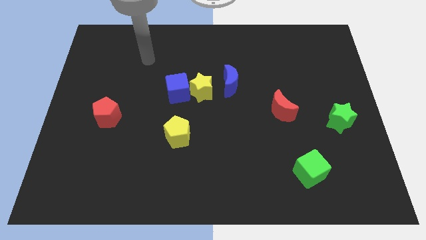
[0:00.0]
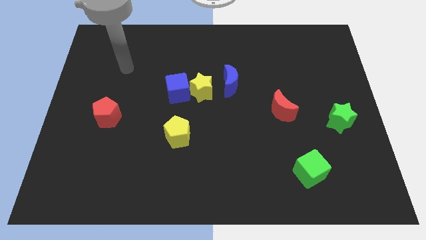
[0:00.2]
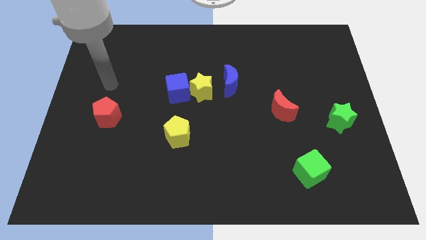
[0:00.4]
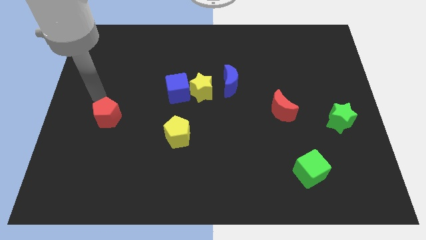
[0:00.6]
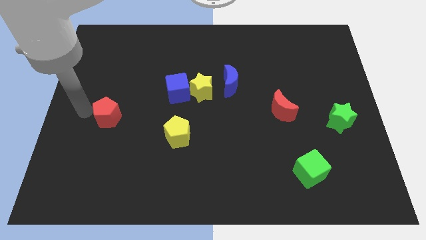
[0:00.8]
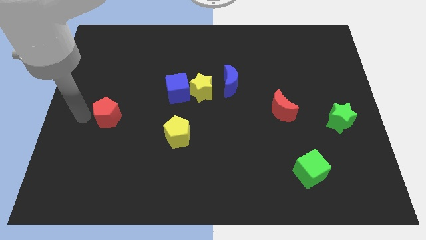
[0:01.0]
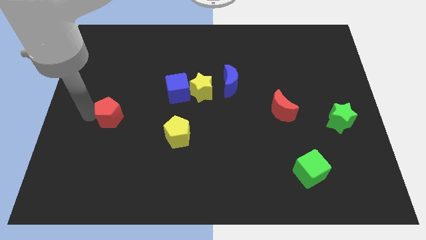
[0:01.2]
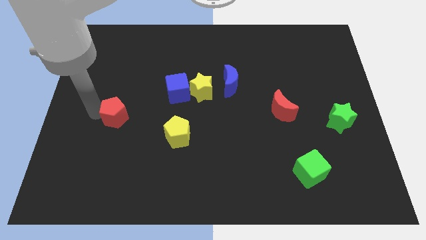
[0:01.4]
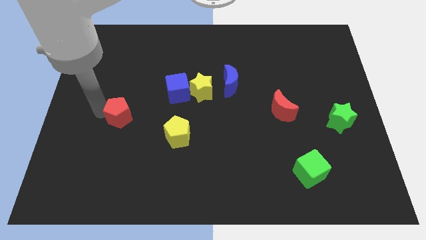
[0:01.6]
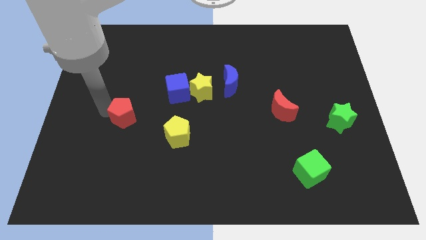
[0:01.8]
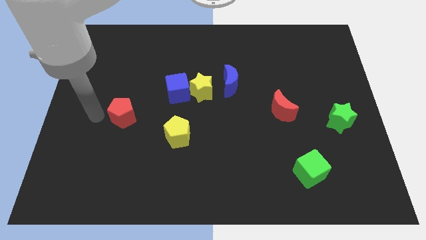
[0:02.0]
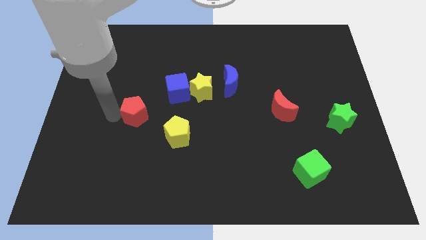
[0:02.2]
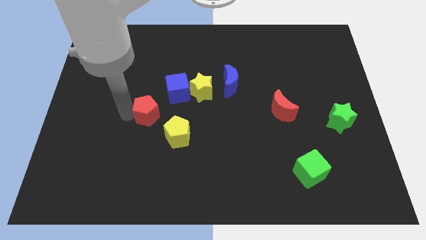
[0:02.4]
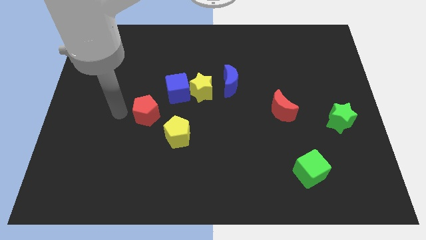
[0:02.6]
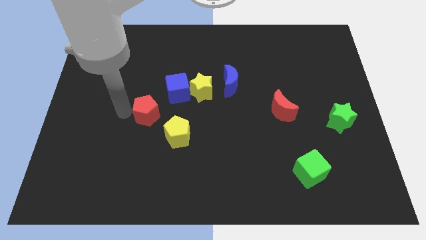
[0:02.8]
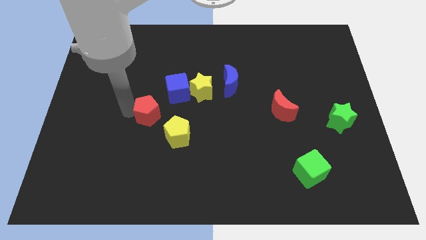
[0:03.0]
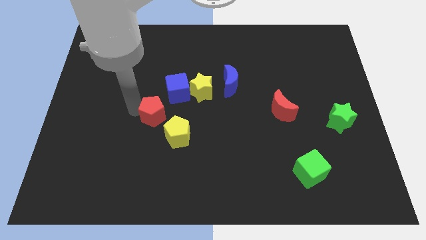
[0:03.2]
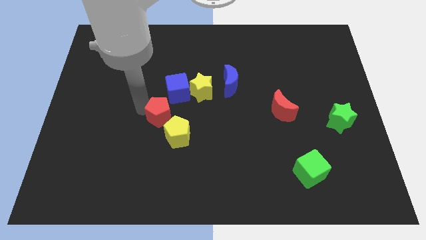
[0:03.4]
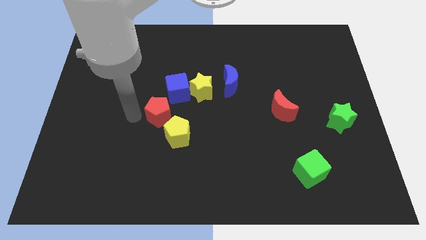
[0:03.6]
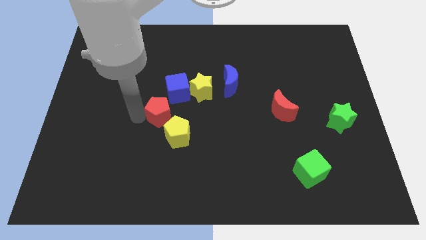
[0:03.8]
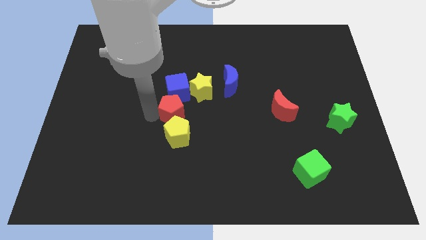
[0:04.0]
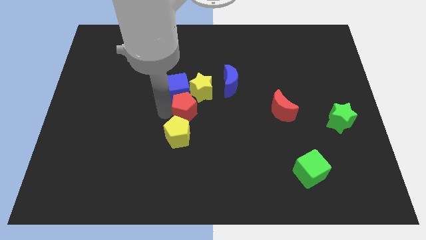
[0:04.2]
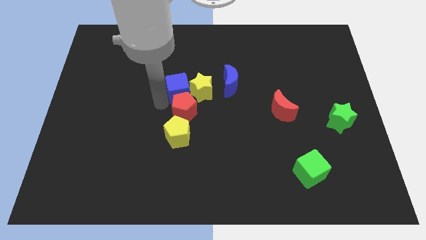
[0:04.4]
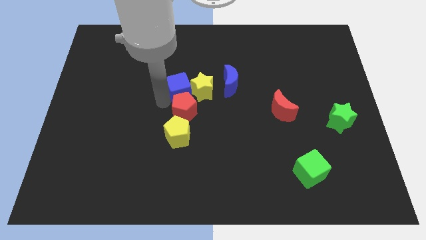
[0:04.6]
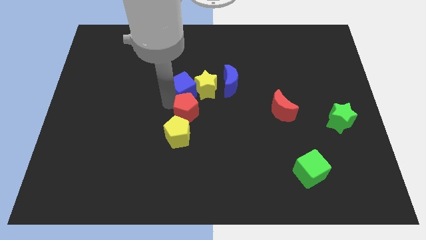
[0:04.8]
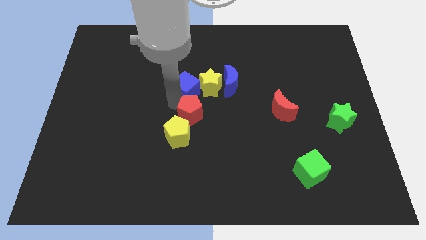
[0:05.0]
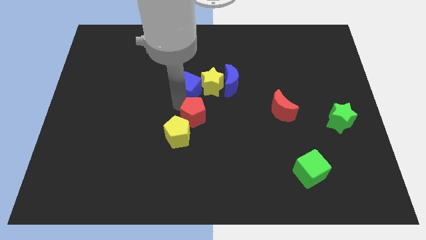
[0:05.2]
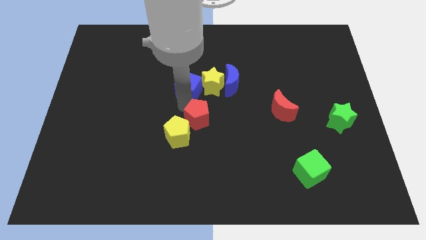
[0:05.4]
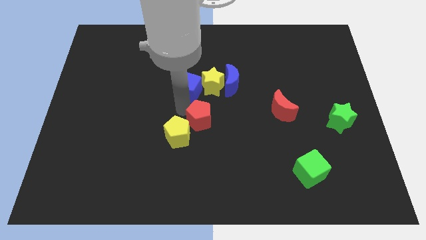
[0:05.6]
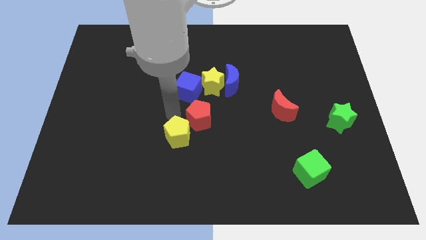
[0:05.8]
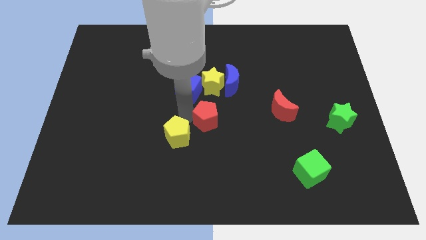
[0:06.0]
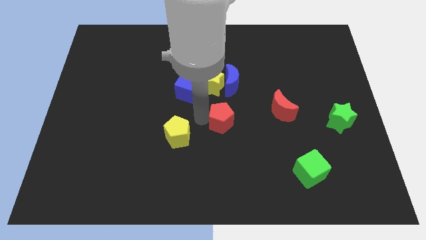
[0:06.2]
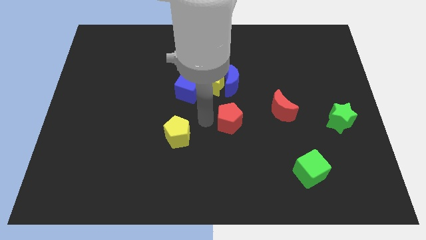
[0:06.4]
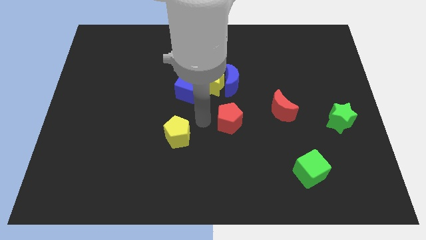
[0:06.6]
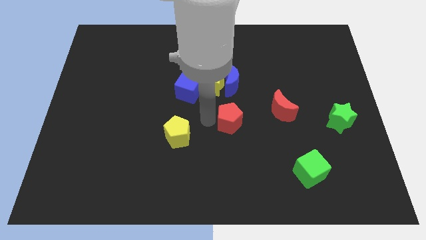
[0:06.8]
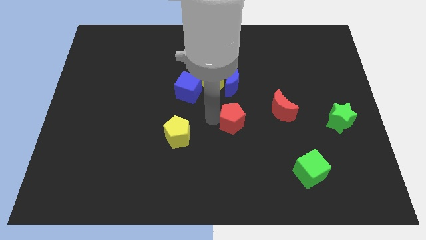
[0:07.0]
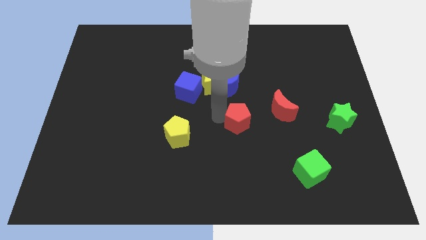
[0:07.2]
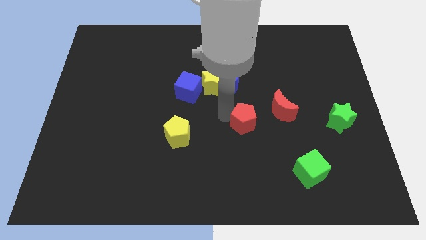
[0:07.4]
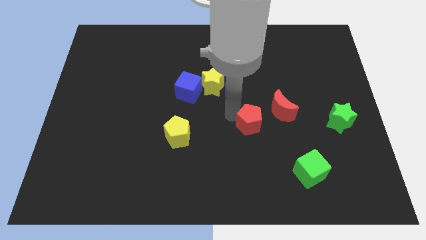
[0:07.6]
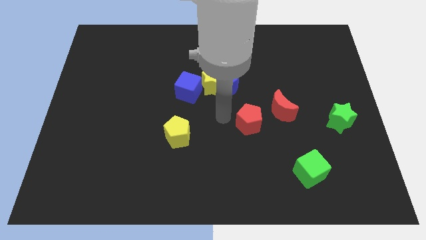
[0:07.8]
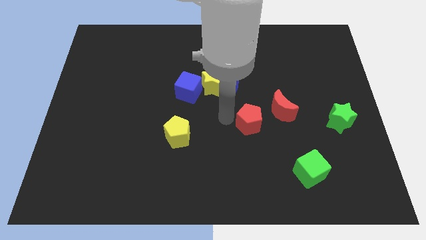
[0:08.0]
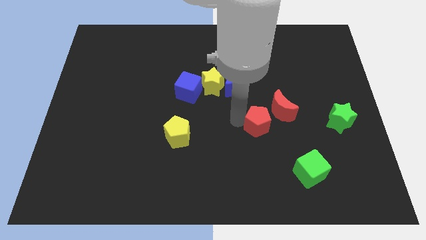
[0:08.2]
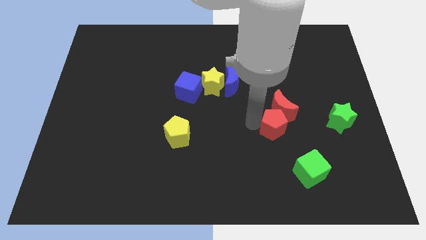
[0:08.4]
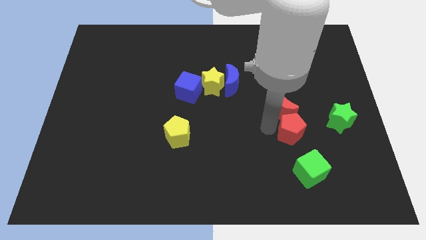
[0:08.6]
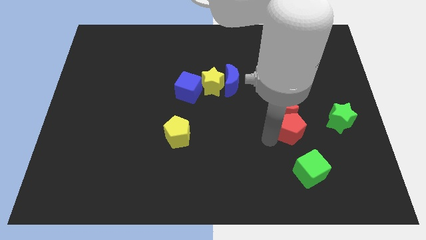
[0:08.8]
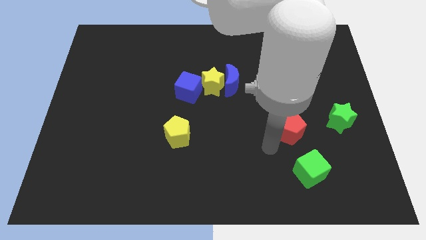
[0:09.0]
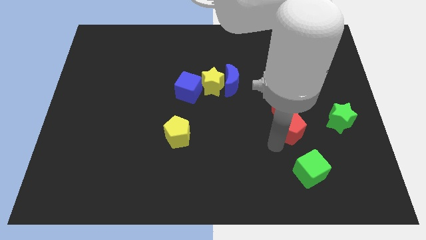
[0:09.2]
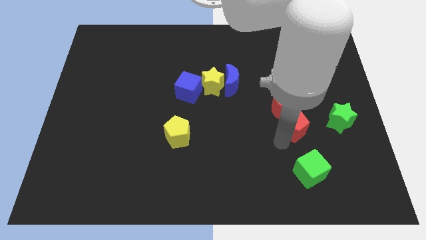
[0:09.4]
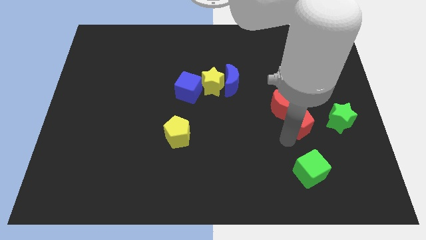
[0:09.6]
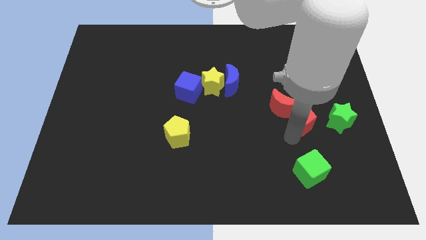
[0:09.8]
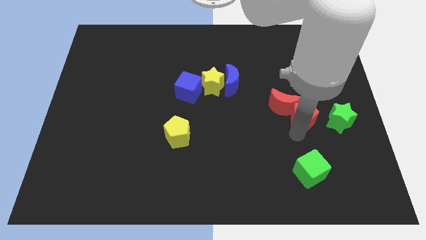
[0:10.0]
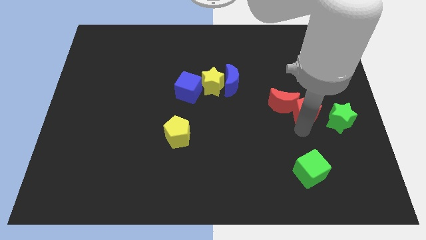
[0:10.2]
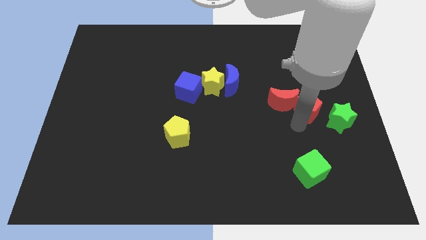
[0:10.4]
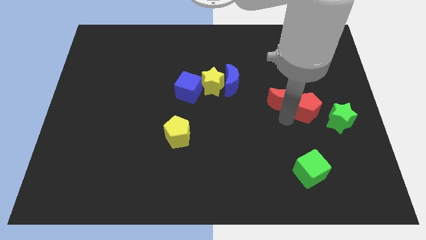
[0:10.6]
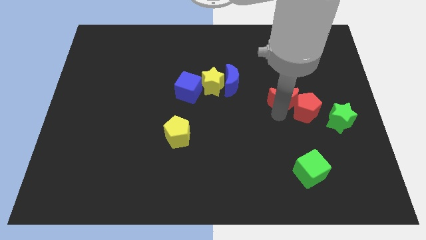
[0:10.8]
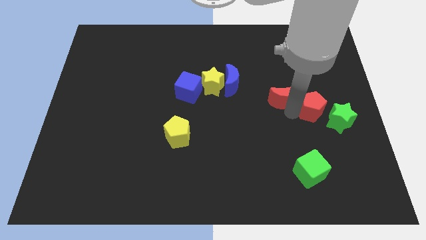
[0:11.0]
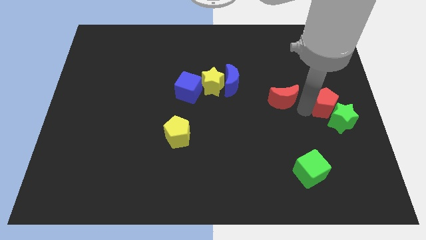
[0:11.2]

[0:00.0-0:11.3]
slide the red pentagon to the right side of the board

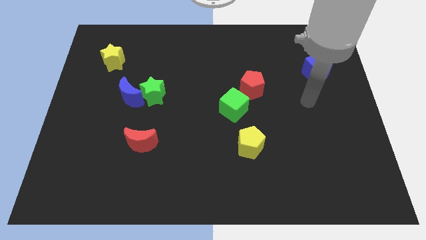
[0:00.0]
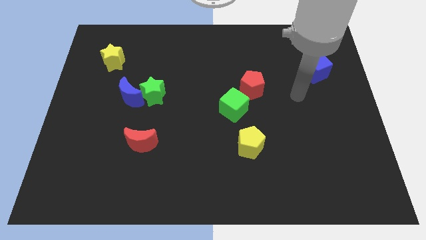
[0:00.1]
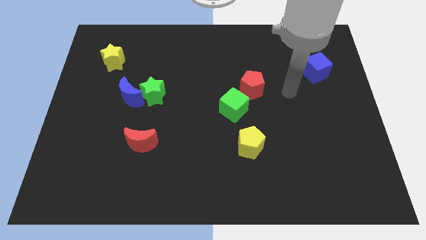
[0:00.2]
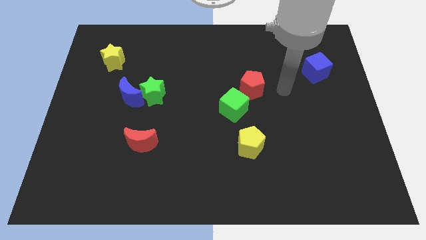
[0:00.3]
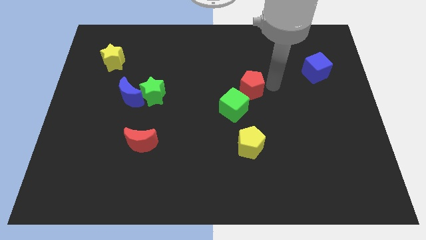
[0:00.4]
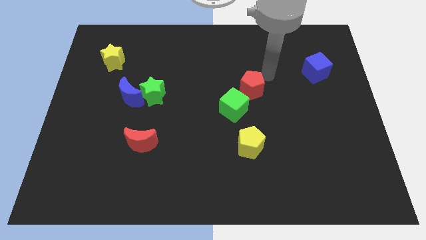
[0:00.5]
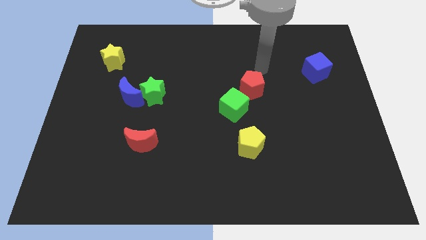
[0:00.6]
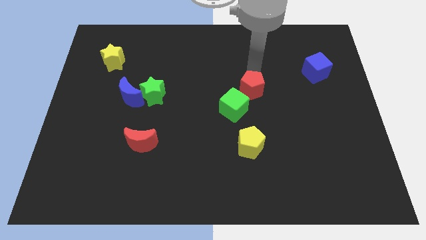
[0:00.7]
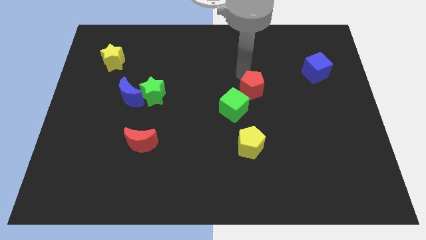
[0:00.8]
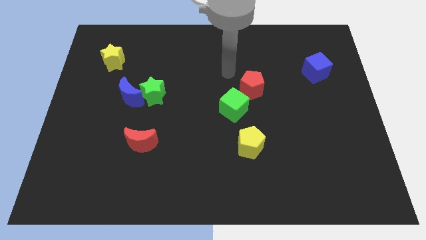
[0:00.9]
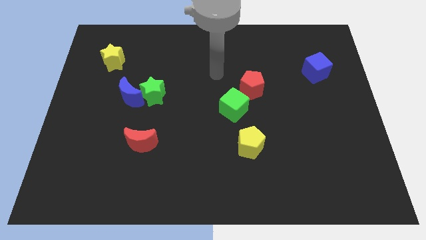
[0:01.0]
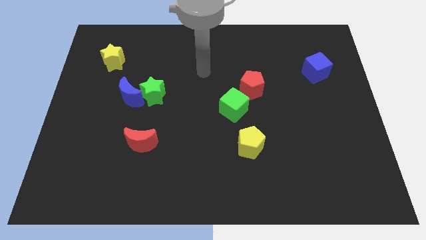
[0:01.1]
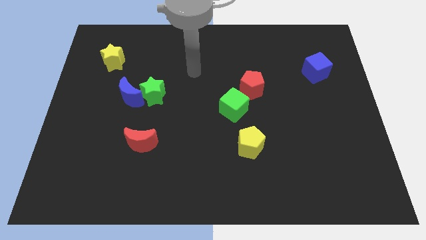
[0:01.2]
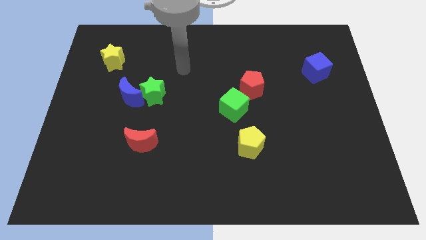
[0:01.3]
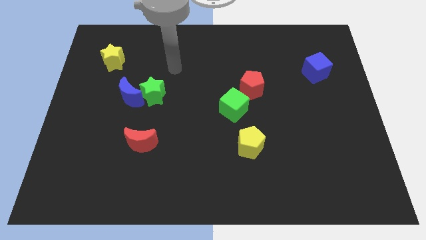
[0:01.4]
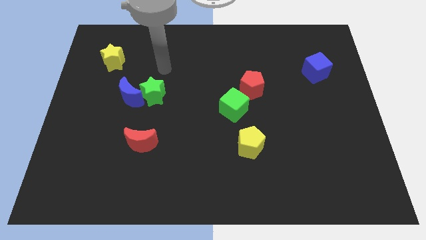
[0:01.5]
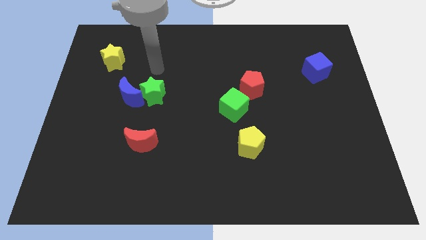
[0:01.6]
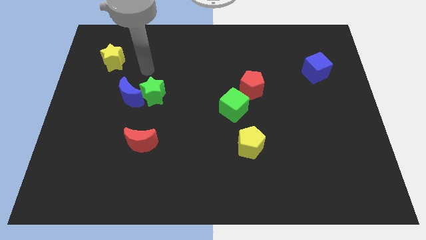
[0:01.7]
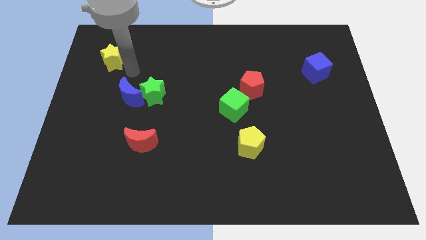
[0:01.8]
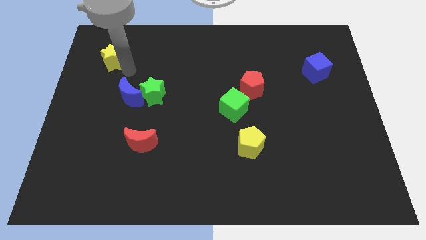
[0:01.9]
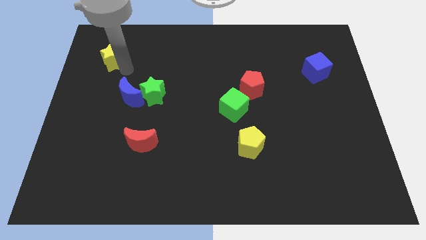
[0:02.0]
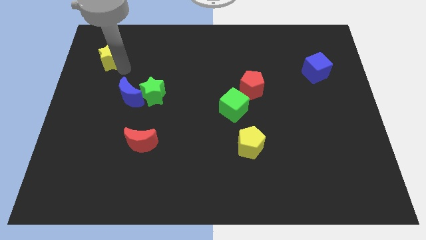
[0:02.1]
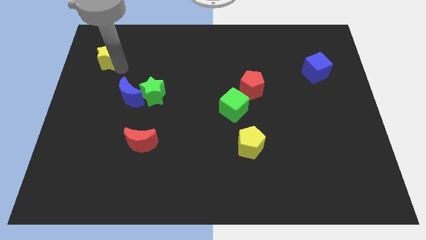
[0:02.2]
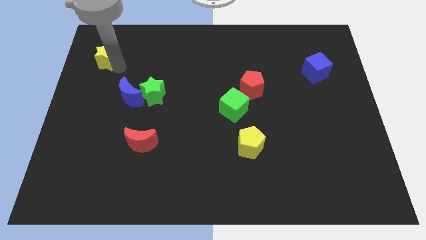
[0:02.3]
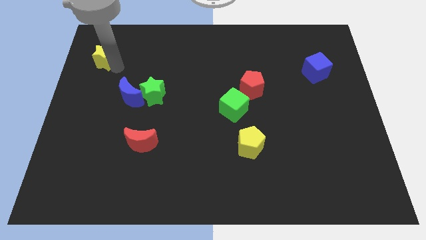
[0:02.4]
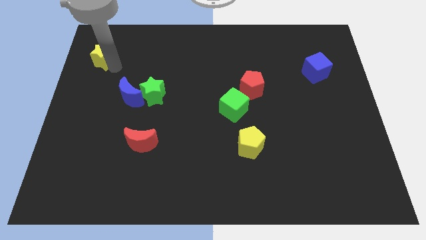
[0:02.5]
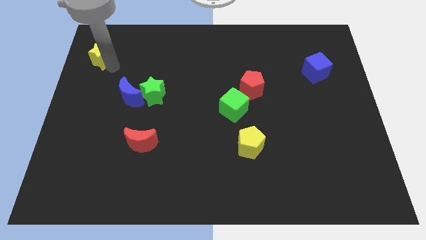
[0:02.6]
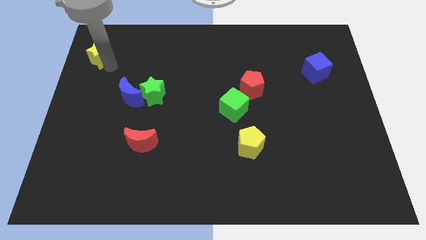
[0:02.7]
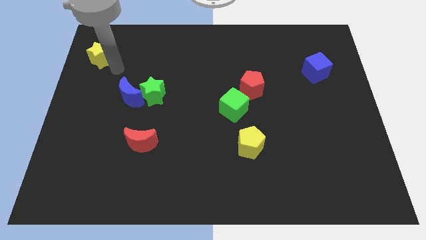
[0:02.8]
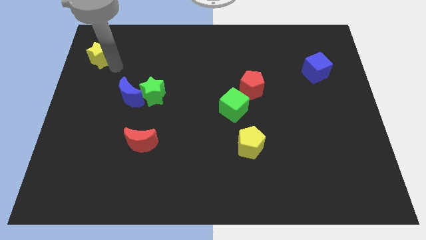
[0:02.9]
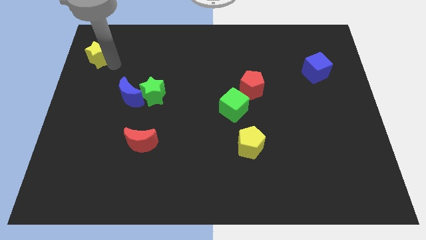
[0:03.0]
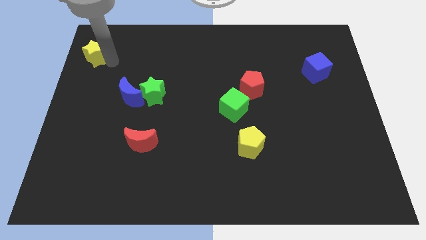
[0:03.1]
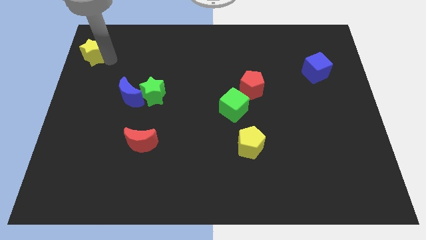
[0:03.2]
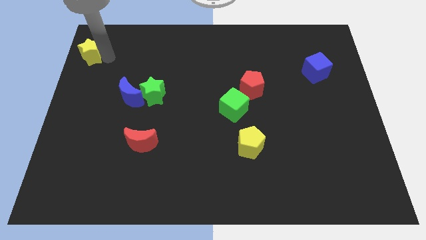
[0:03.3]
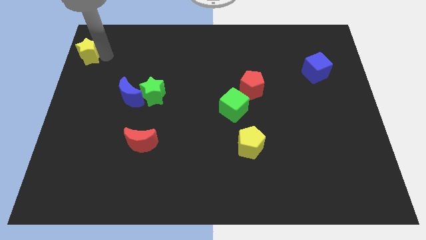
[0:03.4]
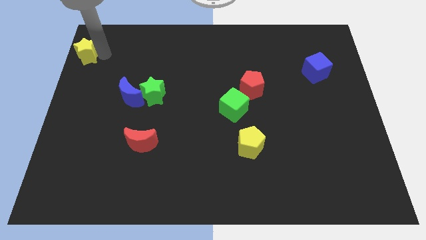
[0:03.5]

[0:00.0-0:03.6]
push the yellow star to the upper left corner
